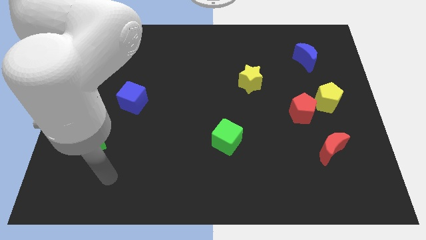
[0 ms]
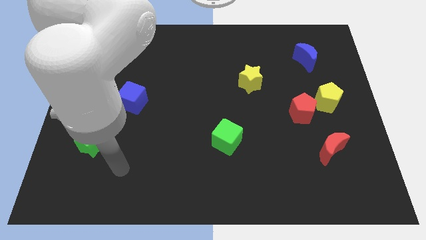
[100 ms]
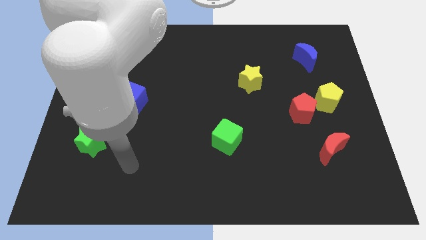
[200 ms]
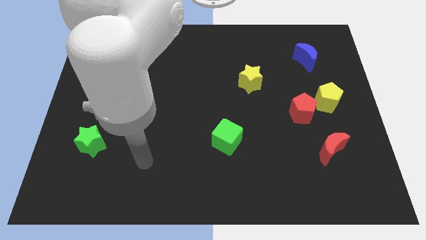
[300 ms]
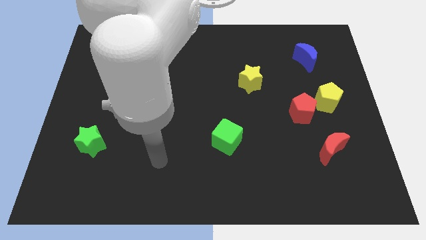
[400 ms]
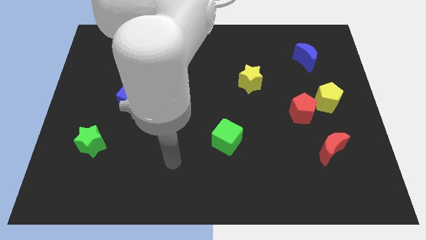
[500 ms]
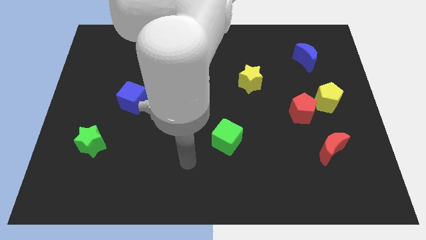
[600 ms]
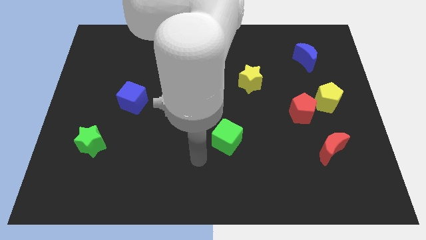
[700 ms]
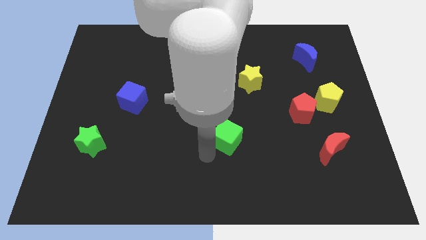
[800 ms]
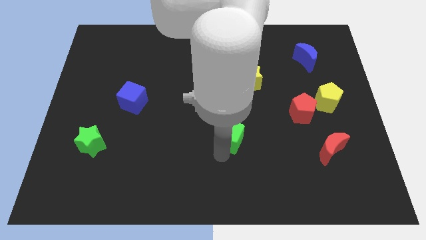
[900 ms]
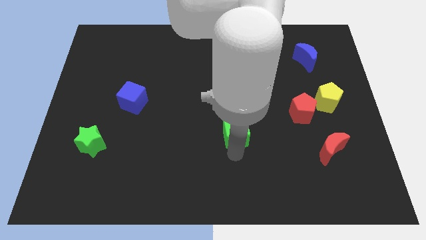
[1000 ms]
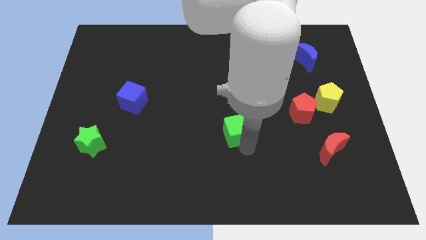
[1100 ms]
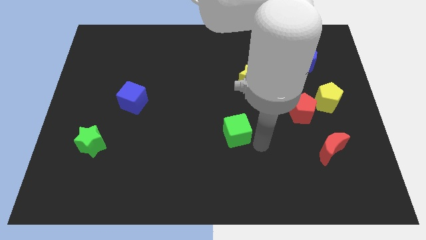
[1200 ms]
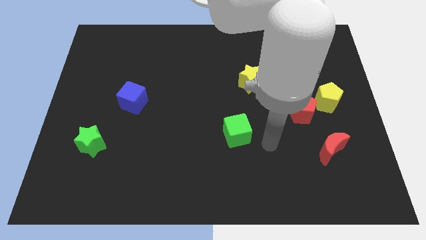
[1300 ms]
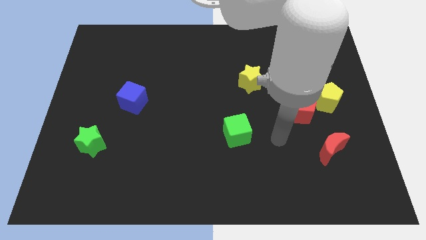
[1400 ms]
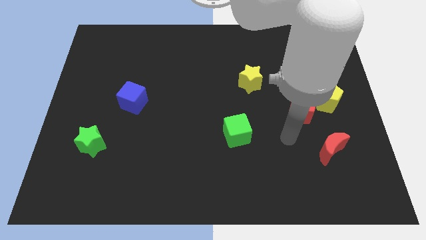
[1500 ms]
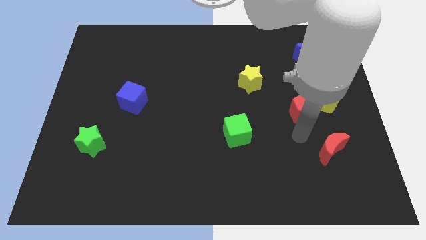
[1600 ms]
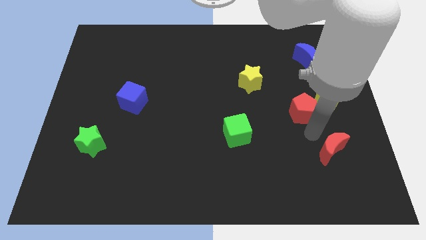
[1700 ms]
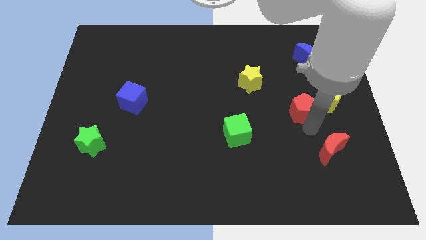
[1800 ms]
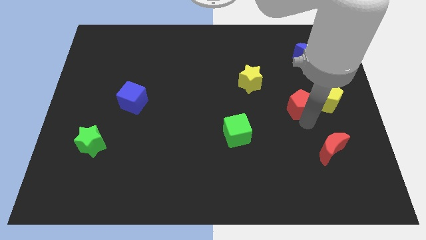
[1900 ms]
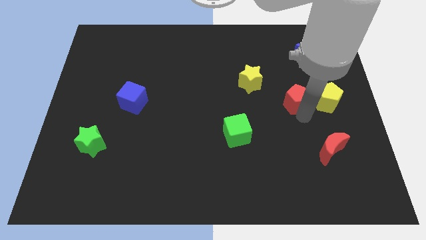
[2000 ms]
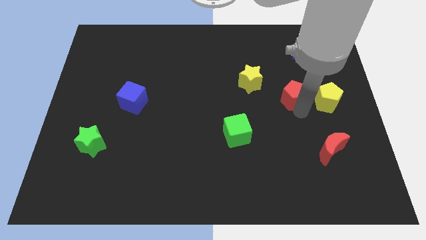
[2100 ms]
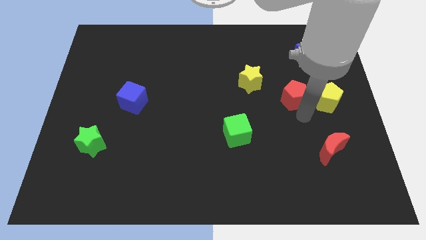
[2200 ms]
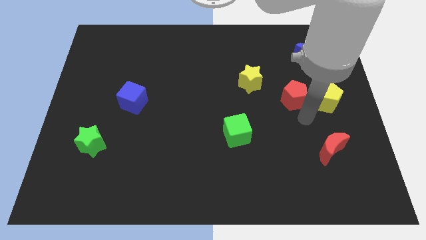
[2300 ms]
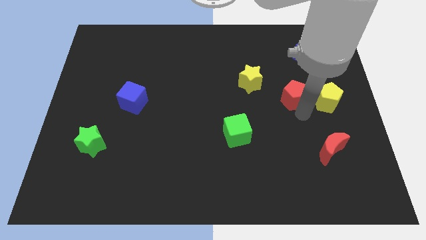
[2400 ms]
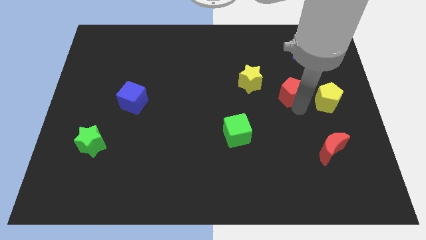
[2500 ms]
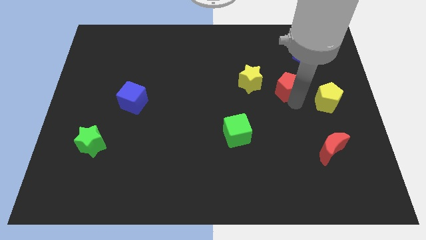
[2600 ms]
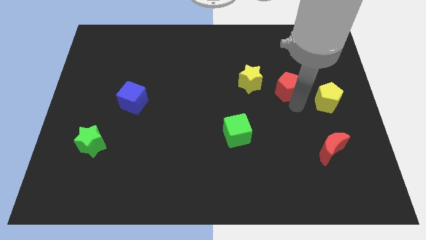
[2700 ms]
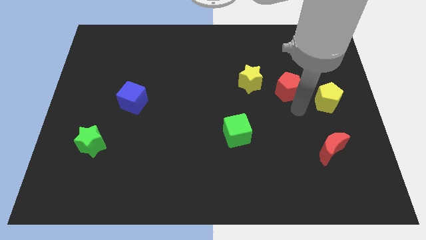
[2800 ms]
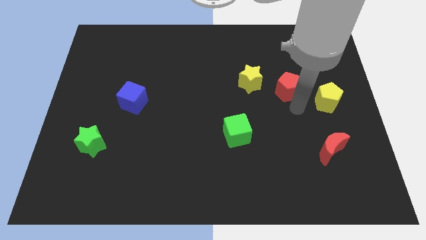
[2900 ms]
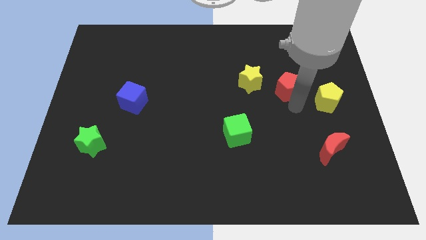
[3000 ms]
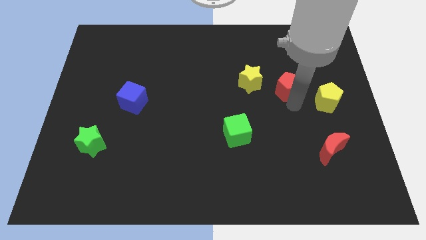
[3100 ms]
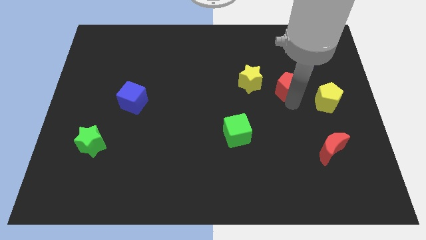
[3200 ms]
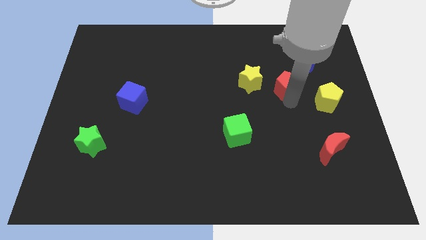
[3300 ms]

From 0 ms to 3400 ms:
slide the red pentagon up and then left somewhat

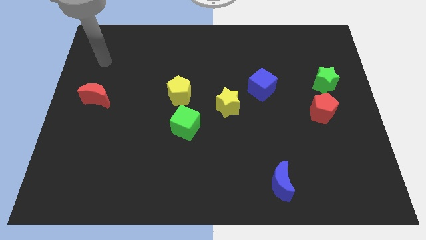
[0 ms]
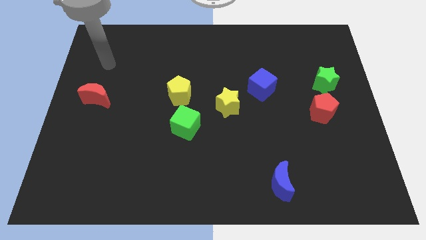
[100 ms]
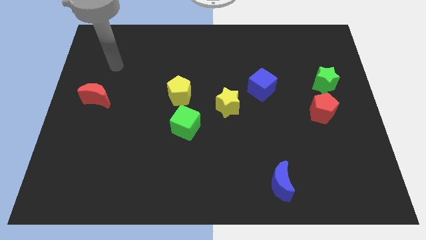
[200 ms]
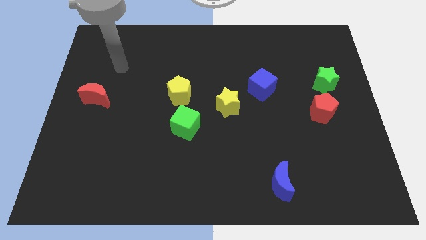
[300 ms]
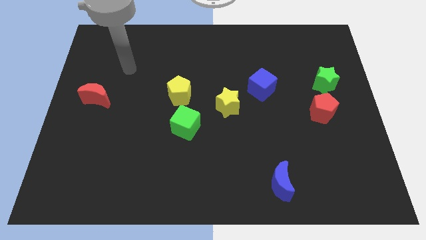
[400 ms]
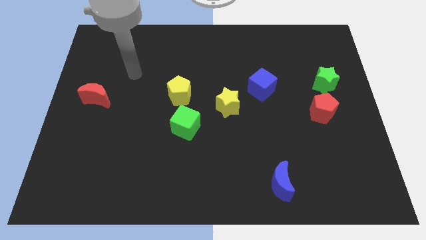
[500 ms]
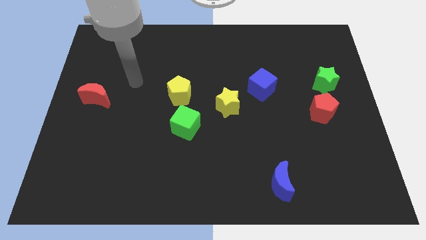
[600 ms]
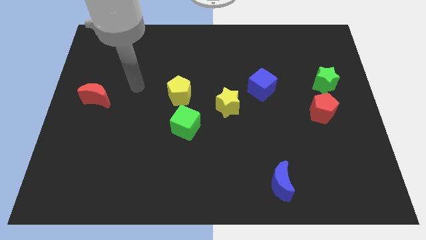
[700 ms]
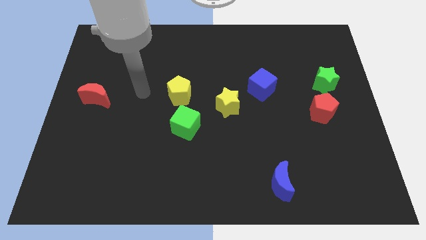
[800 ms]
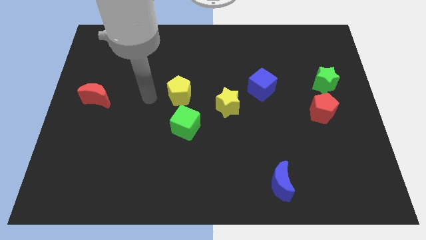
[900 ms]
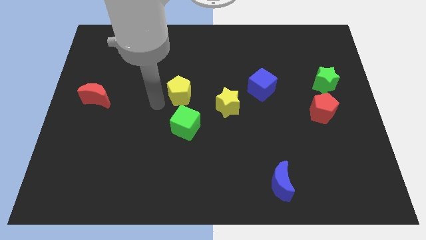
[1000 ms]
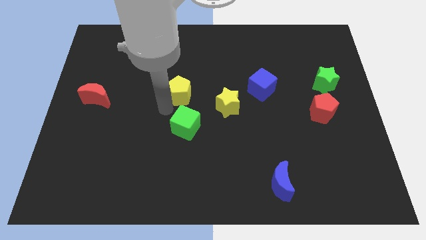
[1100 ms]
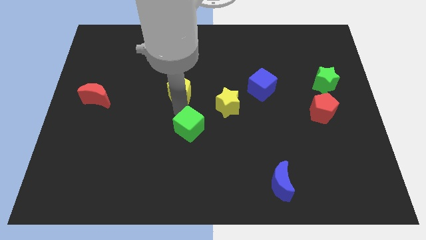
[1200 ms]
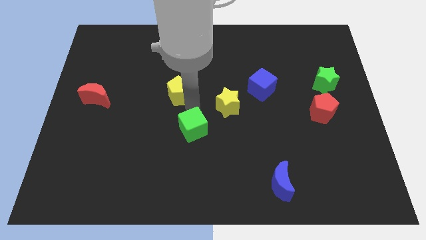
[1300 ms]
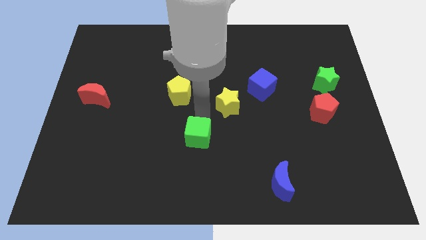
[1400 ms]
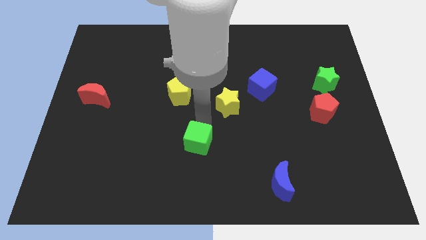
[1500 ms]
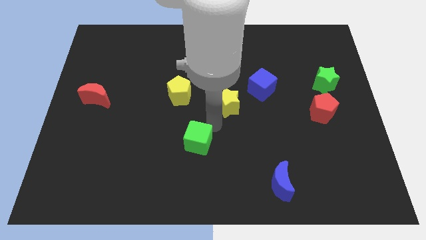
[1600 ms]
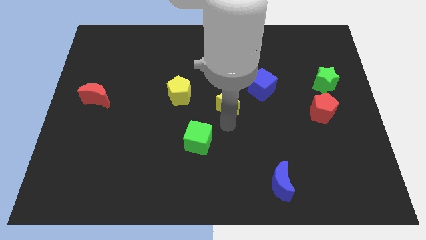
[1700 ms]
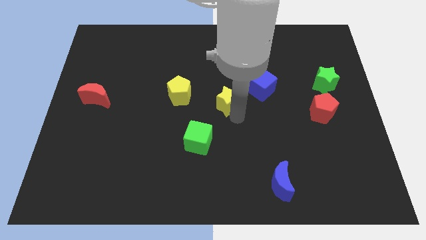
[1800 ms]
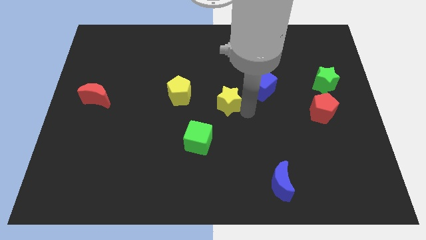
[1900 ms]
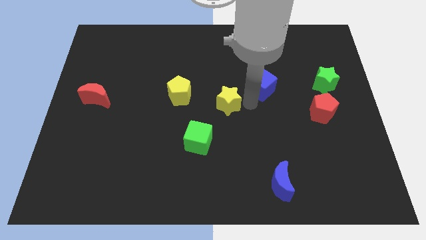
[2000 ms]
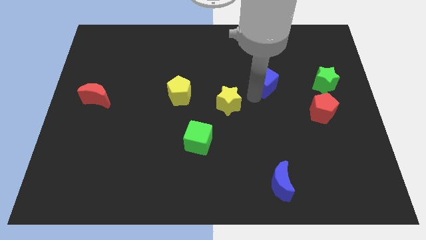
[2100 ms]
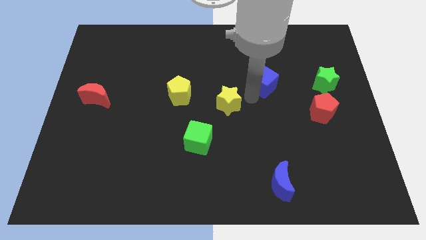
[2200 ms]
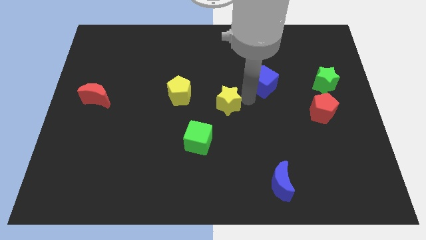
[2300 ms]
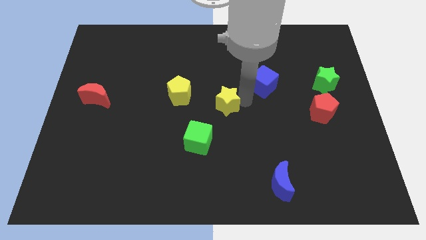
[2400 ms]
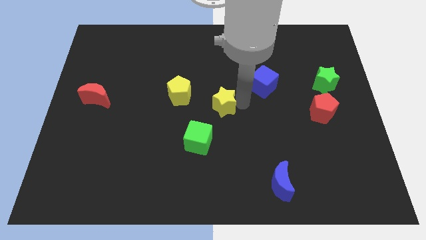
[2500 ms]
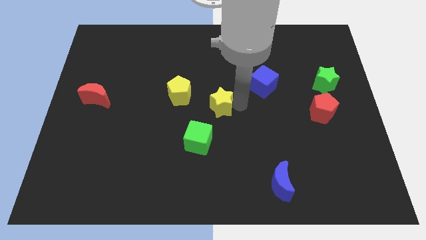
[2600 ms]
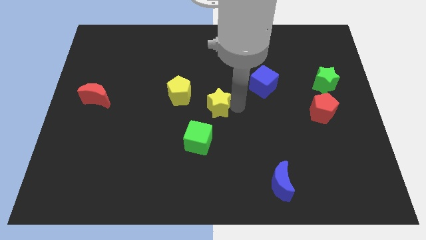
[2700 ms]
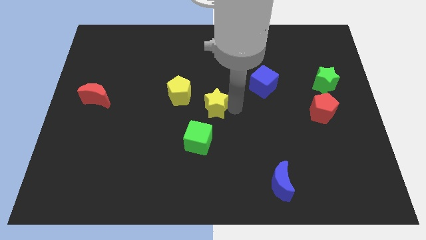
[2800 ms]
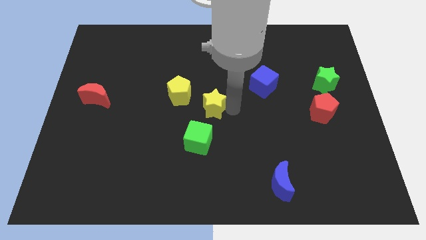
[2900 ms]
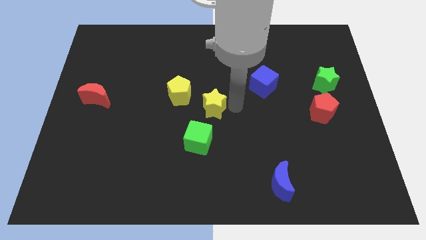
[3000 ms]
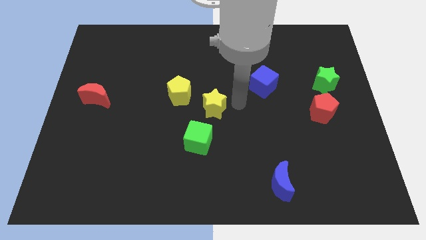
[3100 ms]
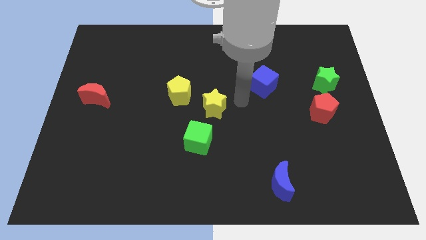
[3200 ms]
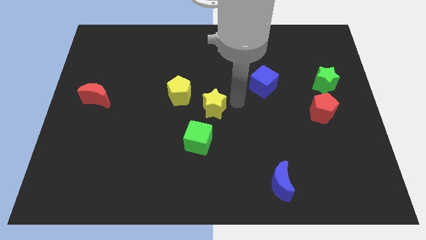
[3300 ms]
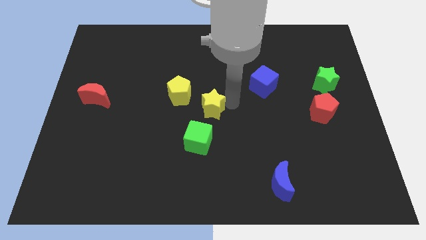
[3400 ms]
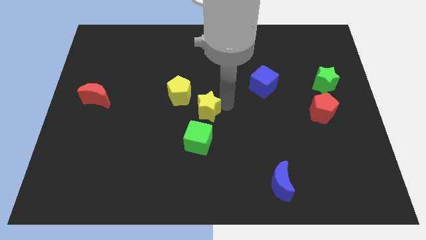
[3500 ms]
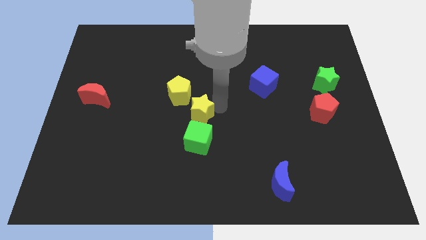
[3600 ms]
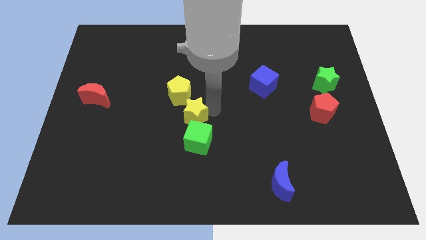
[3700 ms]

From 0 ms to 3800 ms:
slide the yellow star to the left a little

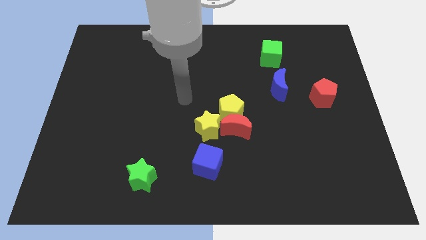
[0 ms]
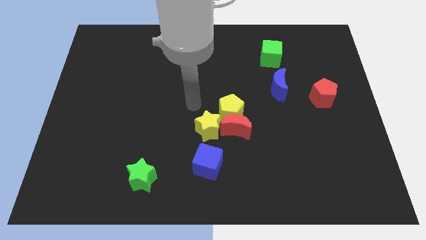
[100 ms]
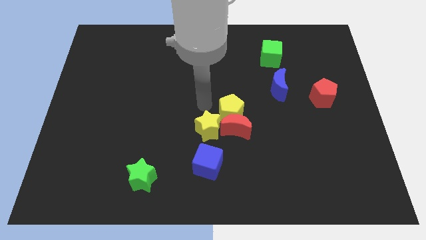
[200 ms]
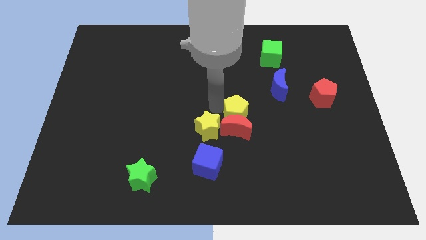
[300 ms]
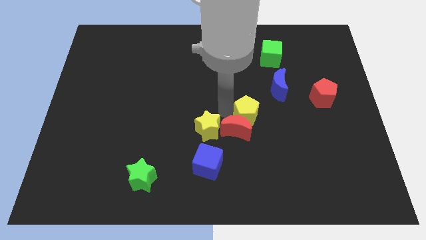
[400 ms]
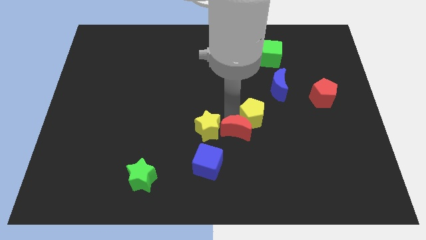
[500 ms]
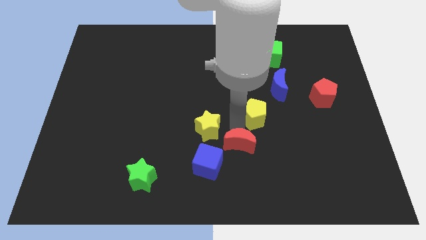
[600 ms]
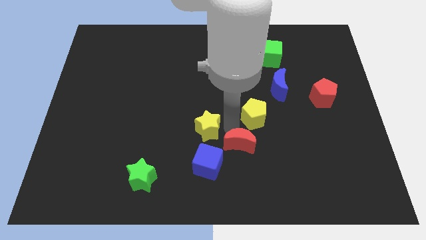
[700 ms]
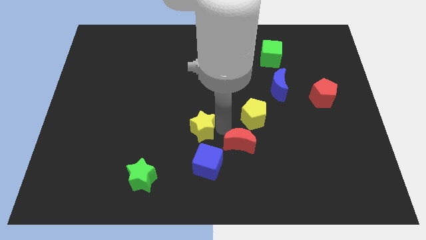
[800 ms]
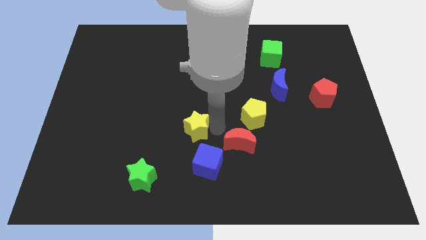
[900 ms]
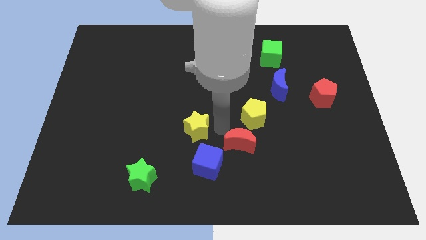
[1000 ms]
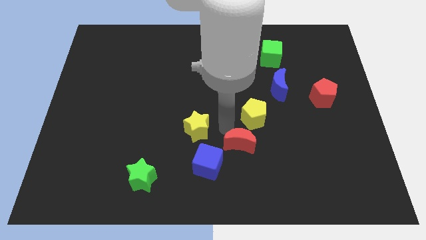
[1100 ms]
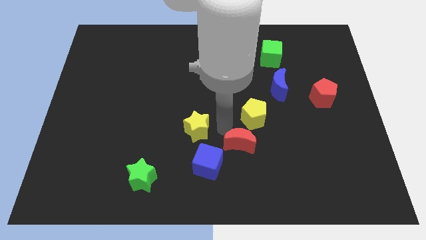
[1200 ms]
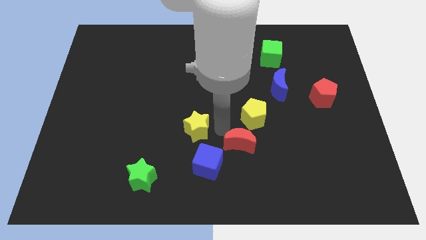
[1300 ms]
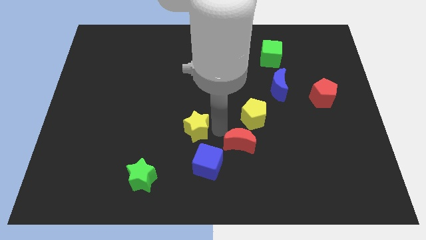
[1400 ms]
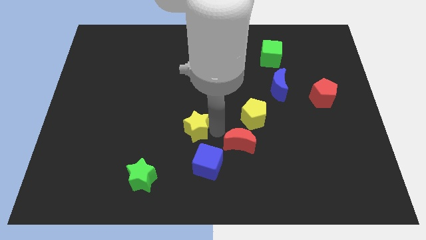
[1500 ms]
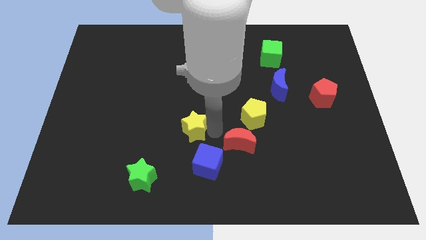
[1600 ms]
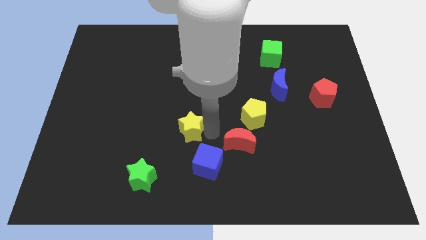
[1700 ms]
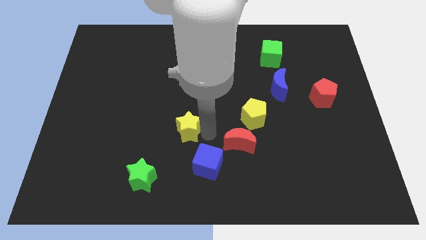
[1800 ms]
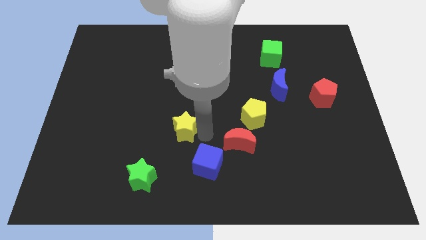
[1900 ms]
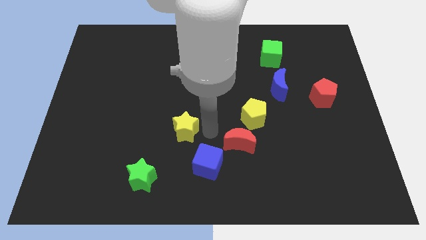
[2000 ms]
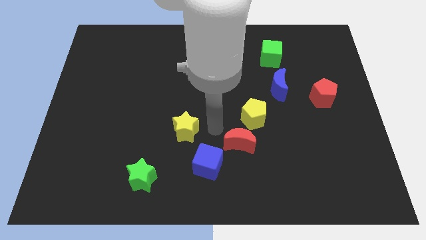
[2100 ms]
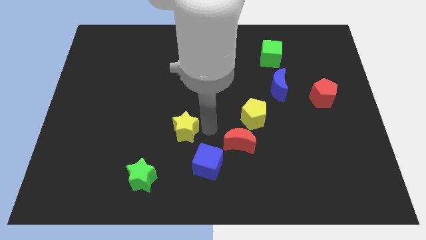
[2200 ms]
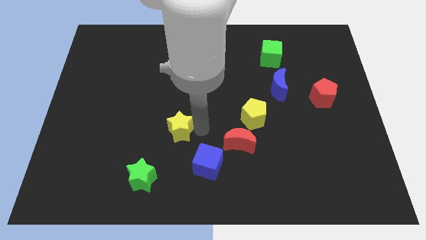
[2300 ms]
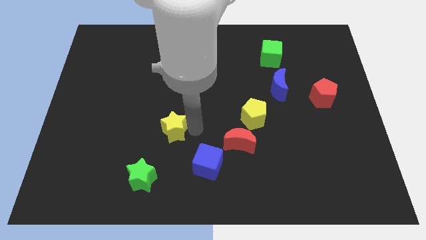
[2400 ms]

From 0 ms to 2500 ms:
push the yellow star left a little
